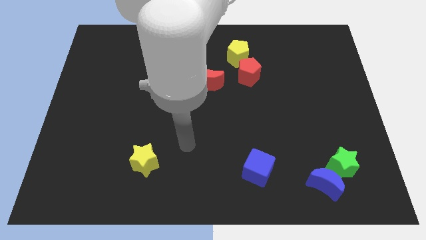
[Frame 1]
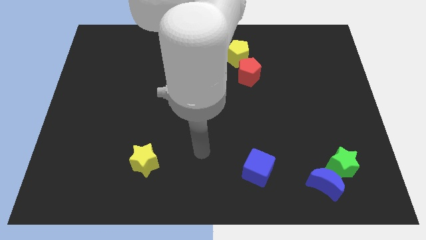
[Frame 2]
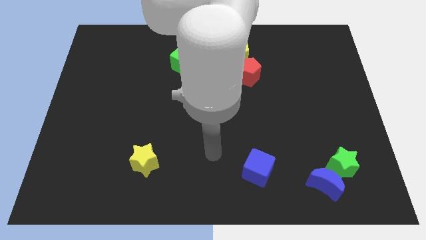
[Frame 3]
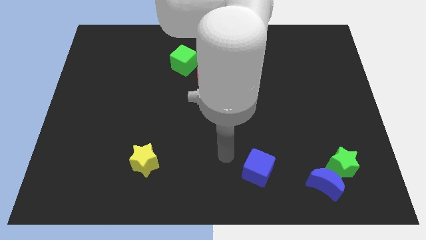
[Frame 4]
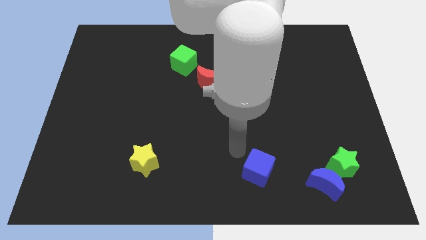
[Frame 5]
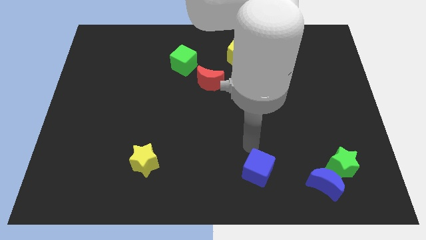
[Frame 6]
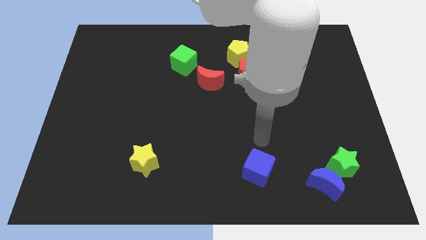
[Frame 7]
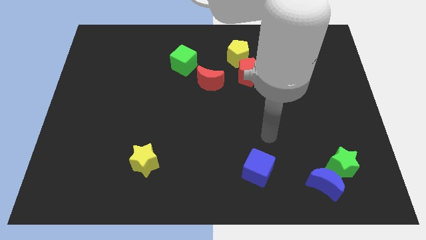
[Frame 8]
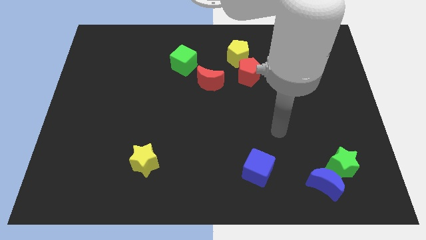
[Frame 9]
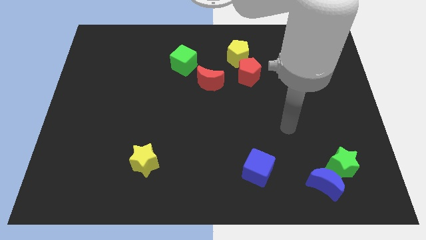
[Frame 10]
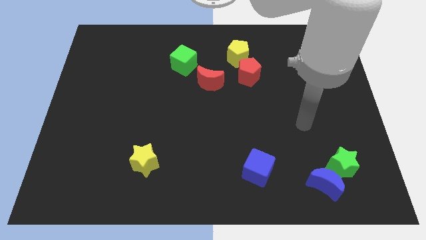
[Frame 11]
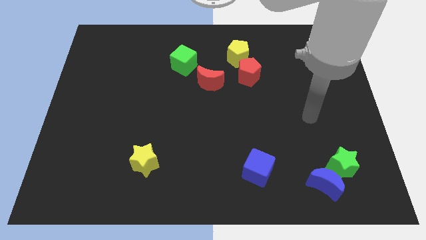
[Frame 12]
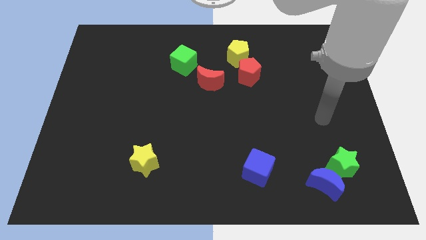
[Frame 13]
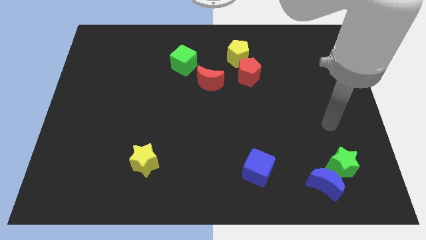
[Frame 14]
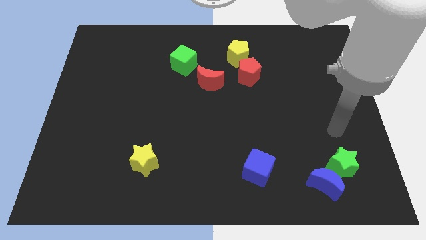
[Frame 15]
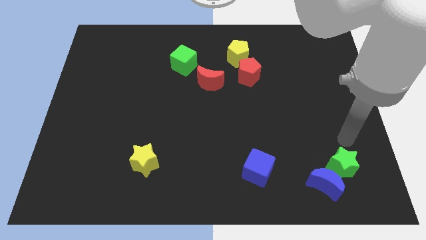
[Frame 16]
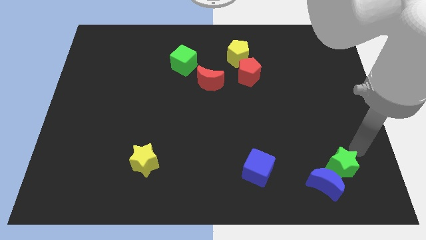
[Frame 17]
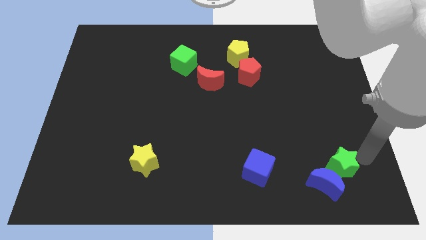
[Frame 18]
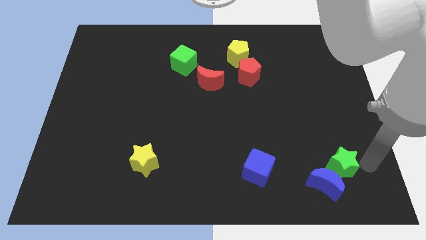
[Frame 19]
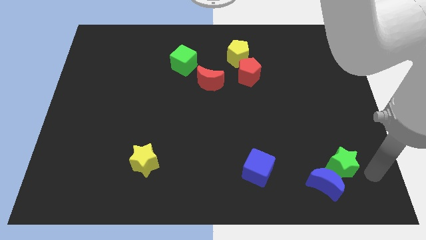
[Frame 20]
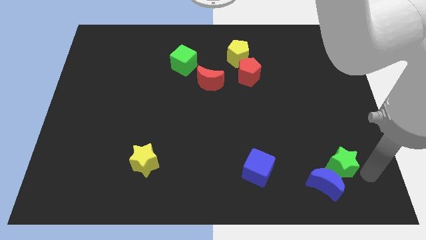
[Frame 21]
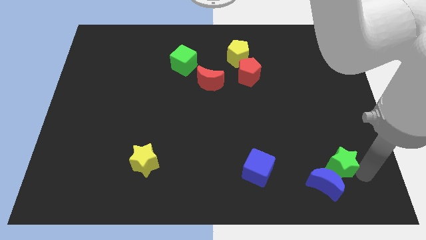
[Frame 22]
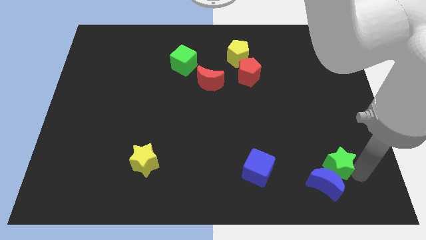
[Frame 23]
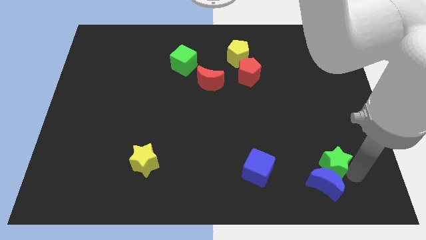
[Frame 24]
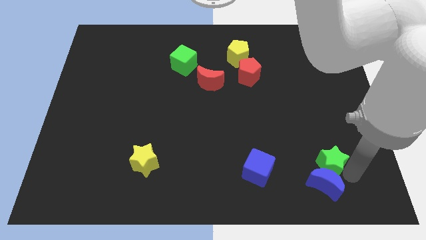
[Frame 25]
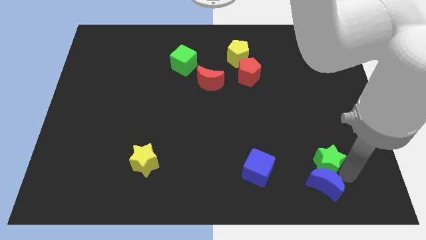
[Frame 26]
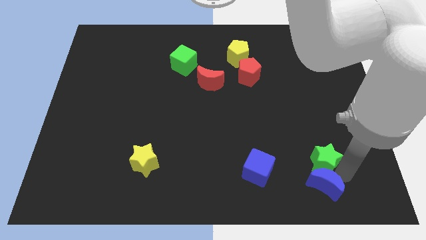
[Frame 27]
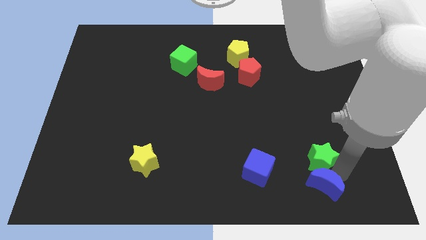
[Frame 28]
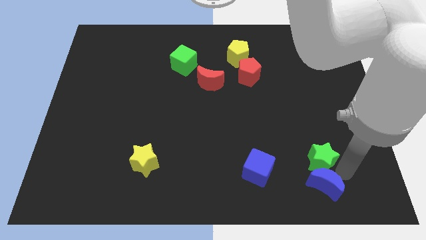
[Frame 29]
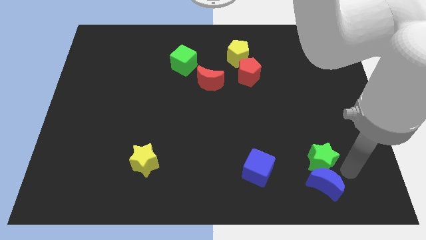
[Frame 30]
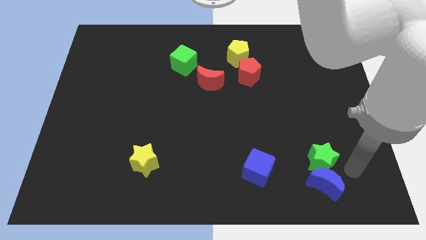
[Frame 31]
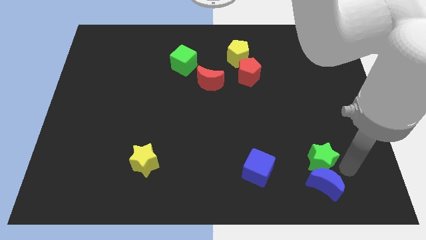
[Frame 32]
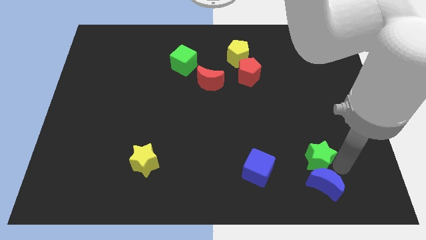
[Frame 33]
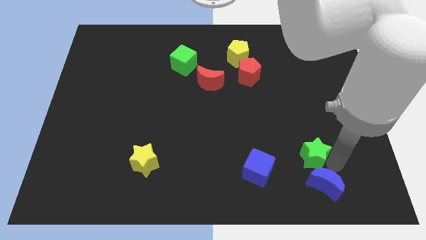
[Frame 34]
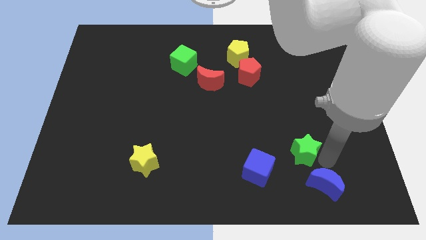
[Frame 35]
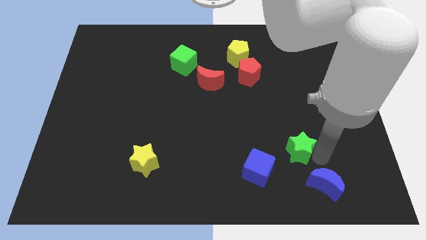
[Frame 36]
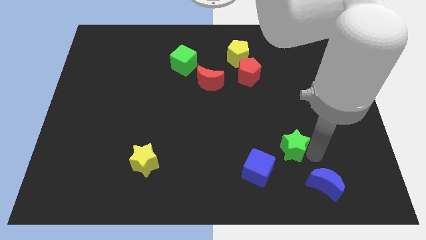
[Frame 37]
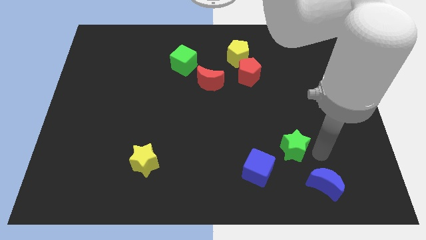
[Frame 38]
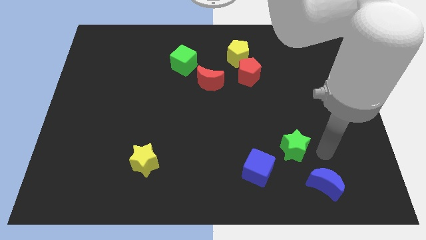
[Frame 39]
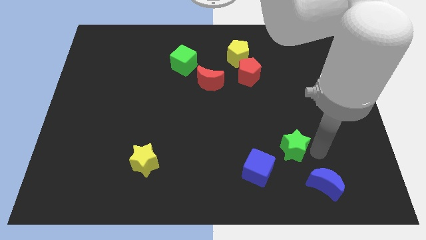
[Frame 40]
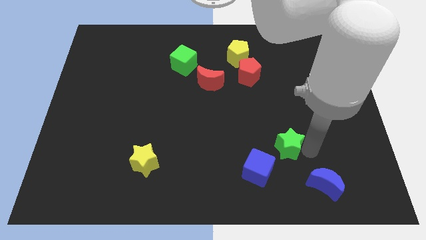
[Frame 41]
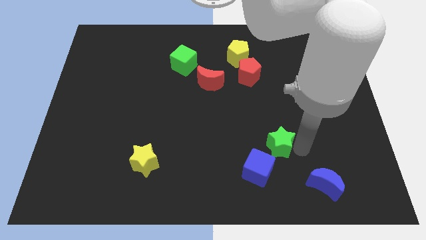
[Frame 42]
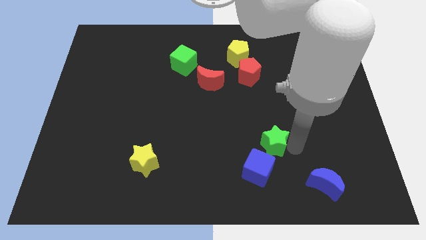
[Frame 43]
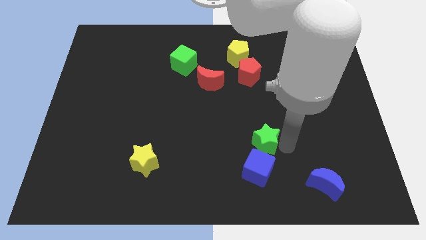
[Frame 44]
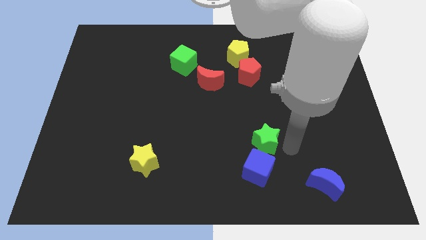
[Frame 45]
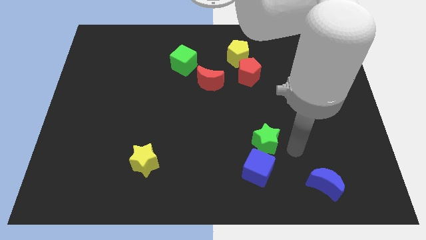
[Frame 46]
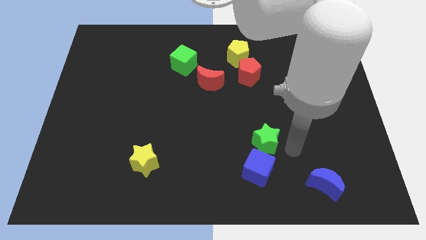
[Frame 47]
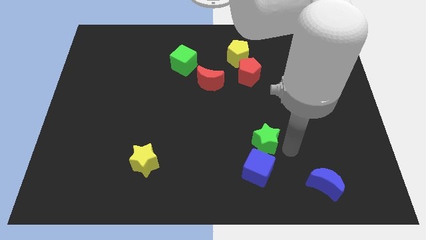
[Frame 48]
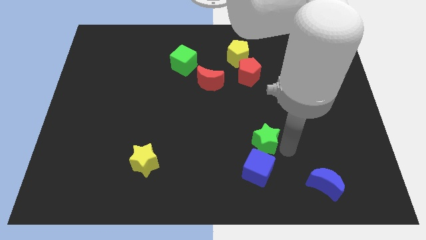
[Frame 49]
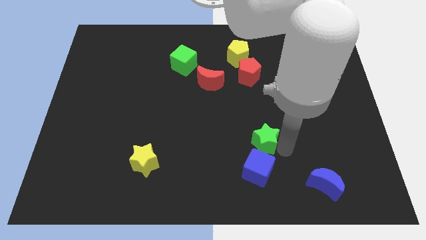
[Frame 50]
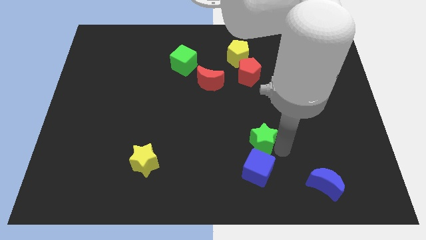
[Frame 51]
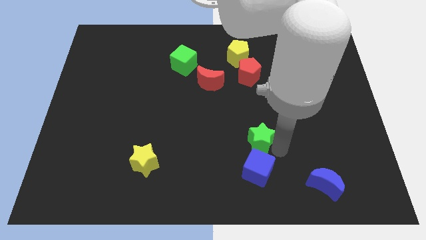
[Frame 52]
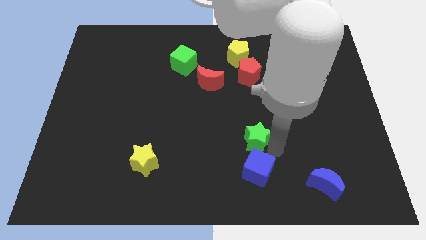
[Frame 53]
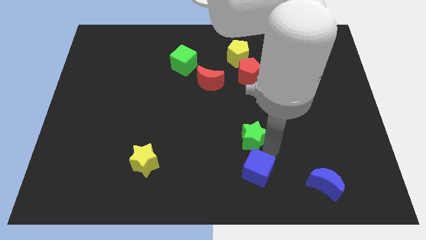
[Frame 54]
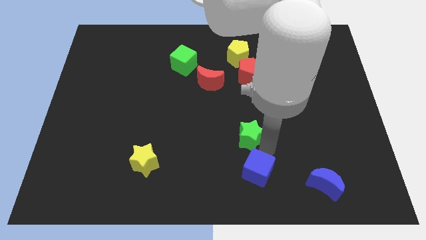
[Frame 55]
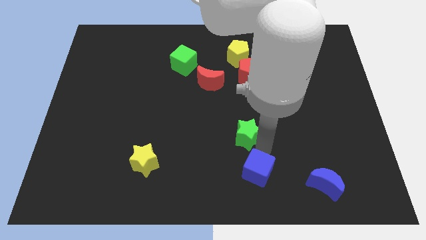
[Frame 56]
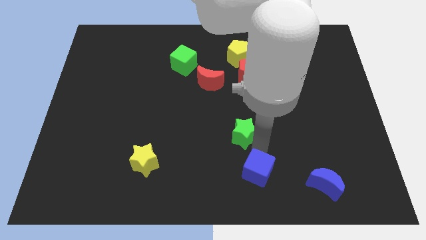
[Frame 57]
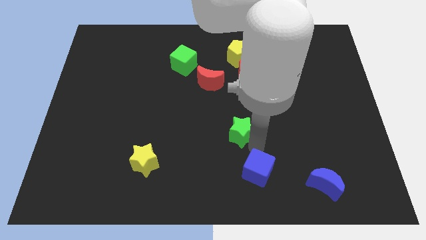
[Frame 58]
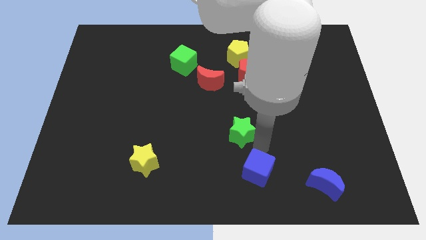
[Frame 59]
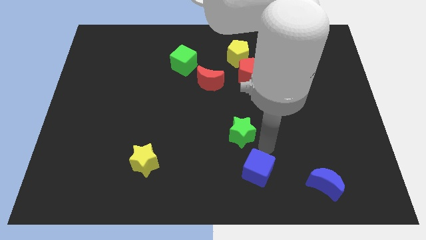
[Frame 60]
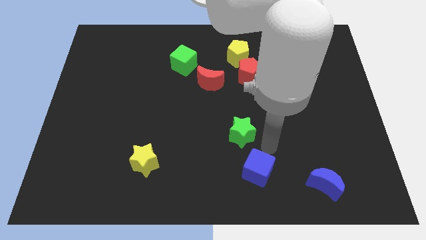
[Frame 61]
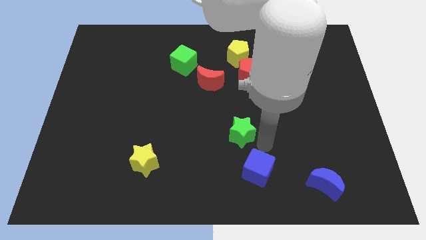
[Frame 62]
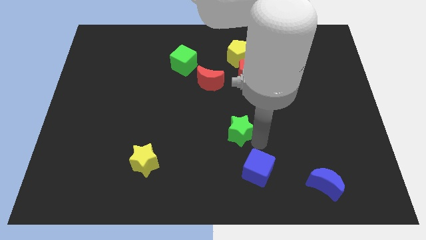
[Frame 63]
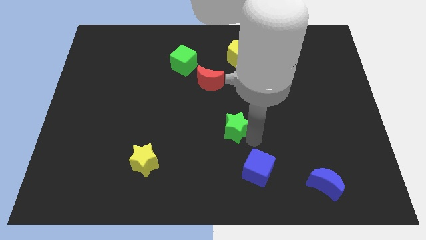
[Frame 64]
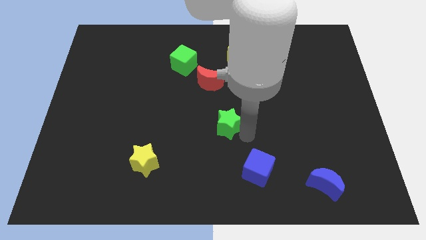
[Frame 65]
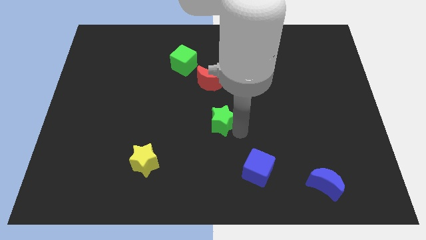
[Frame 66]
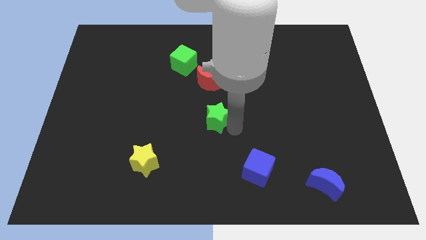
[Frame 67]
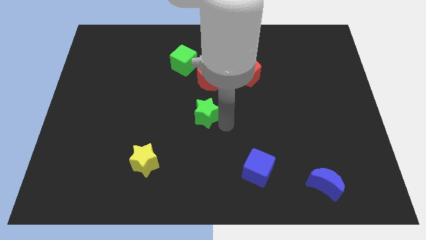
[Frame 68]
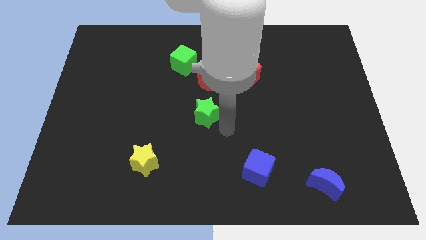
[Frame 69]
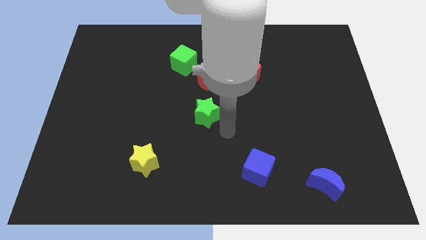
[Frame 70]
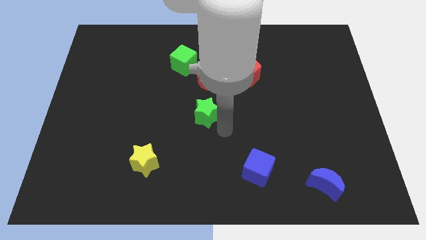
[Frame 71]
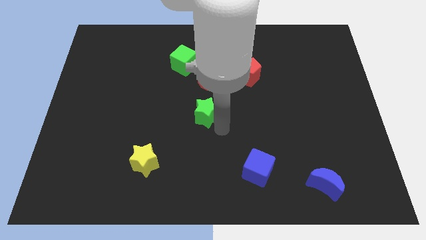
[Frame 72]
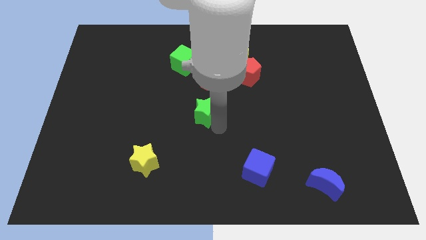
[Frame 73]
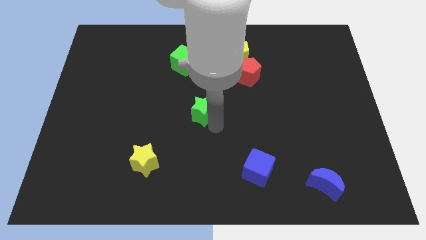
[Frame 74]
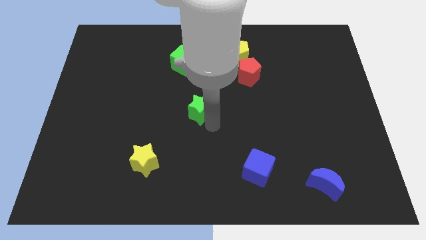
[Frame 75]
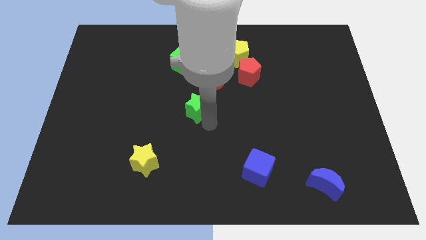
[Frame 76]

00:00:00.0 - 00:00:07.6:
push the green star to the bottom left side of the red moon
